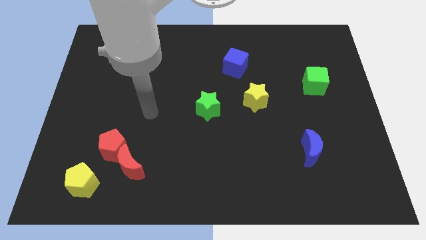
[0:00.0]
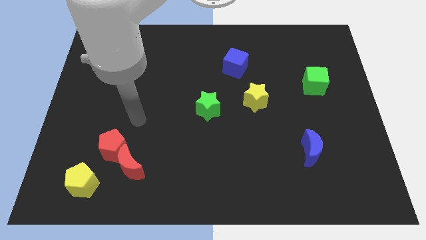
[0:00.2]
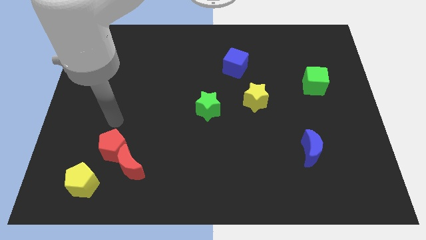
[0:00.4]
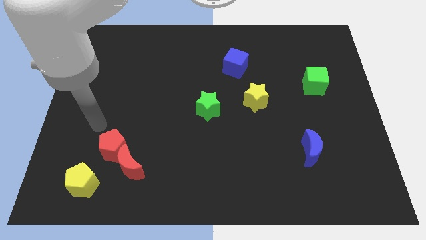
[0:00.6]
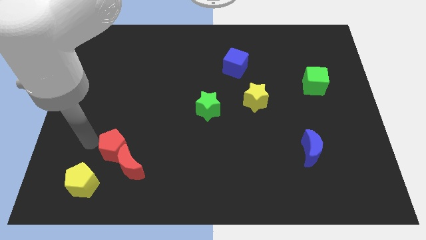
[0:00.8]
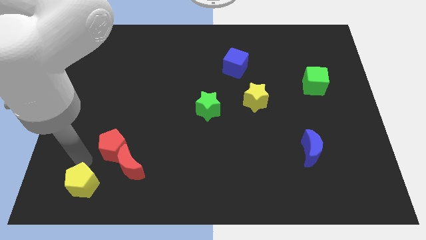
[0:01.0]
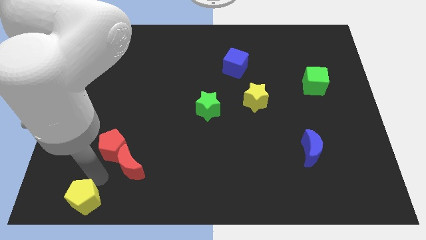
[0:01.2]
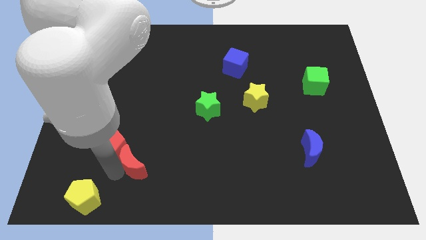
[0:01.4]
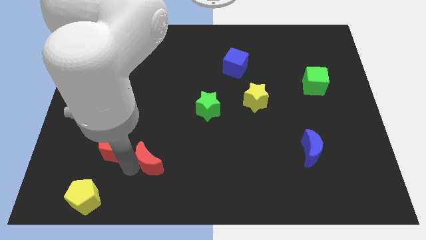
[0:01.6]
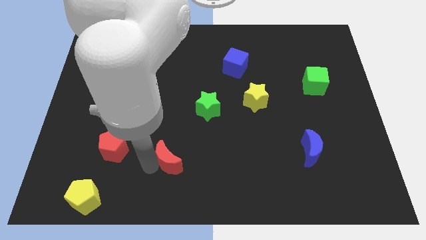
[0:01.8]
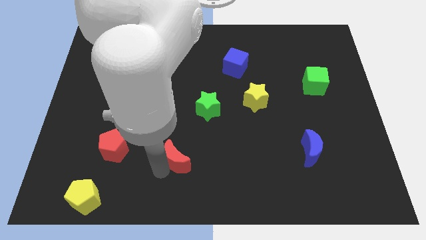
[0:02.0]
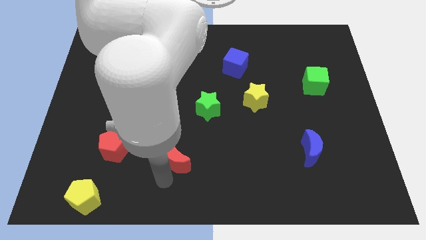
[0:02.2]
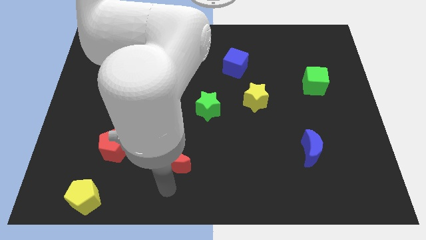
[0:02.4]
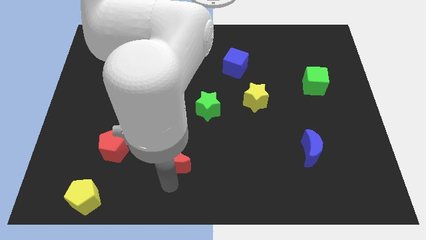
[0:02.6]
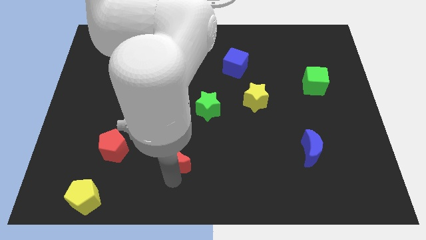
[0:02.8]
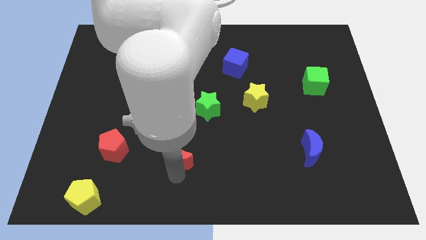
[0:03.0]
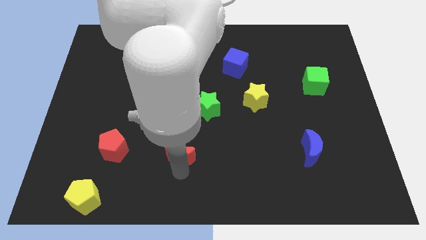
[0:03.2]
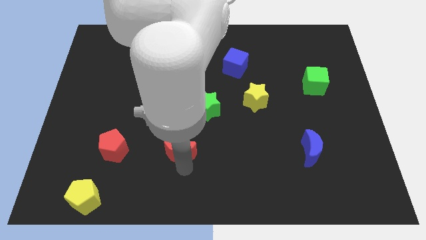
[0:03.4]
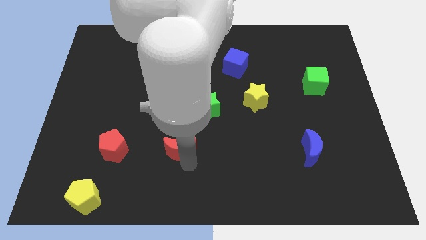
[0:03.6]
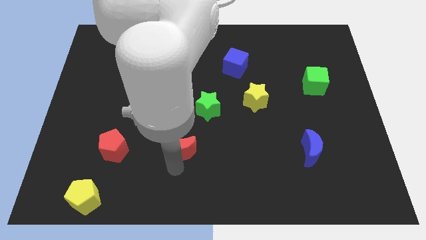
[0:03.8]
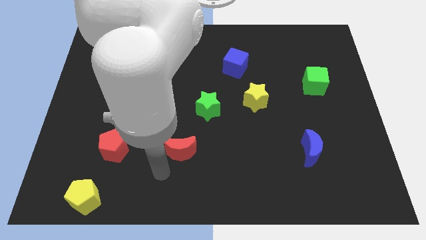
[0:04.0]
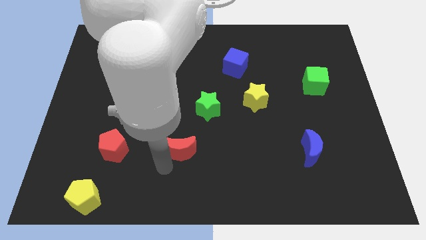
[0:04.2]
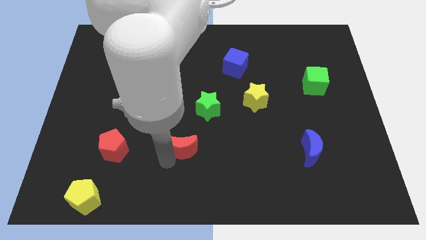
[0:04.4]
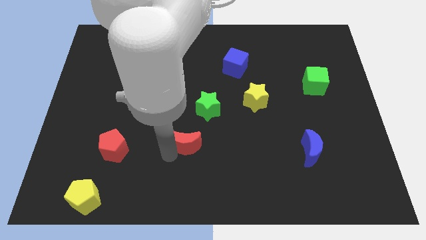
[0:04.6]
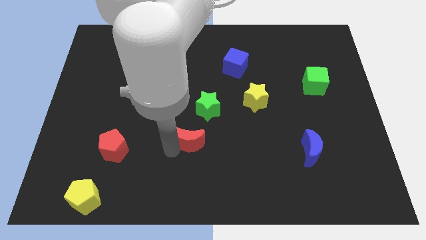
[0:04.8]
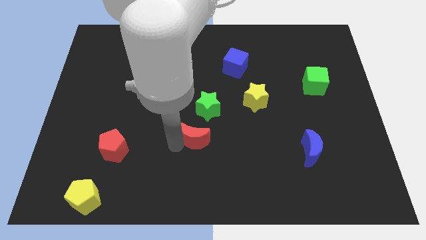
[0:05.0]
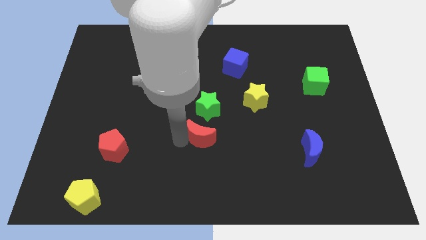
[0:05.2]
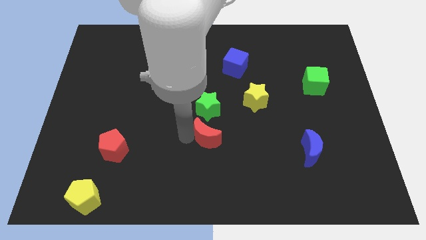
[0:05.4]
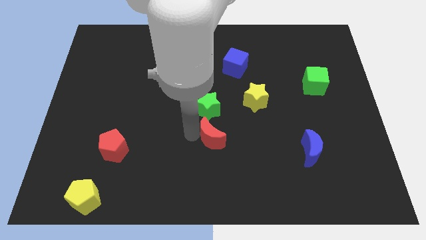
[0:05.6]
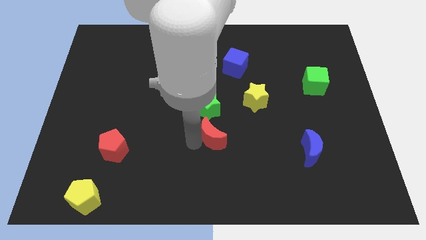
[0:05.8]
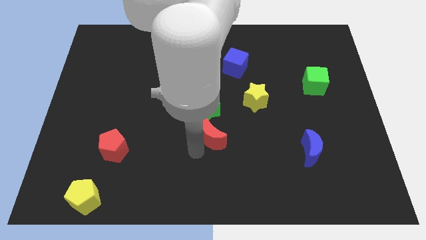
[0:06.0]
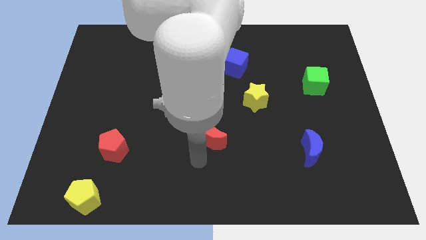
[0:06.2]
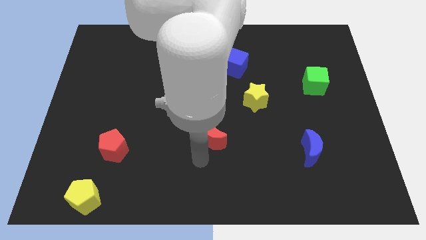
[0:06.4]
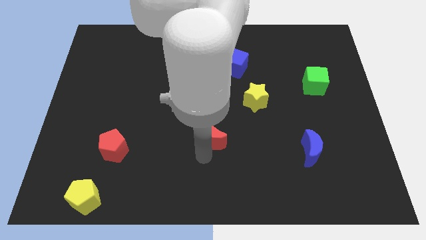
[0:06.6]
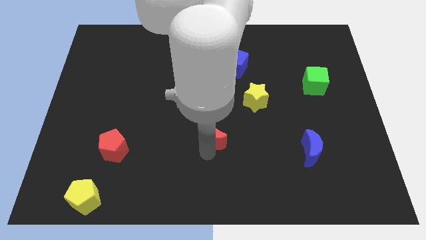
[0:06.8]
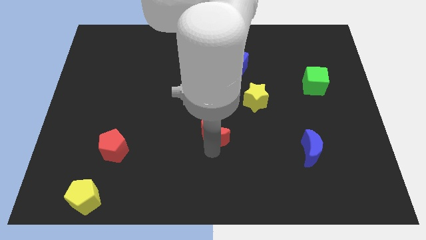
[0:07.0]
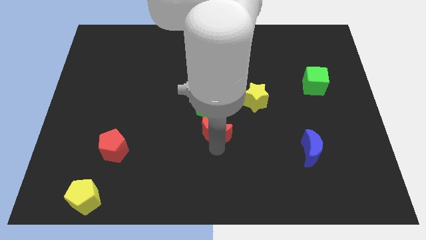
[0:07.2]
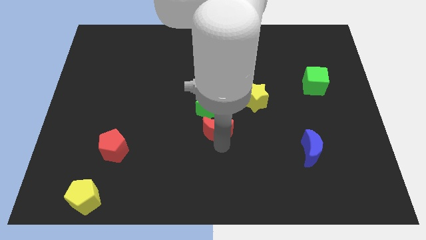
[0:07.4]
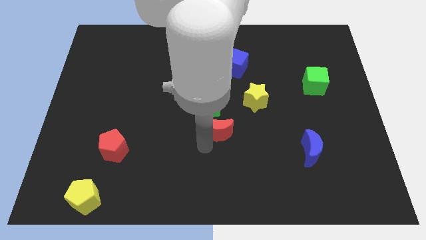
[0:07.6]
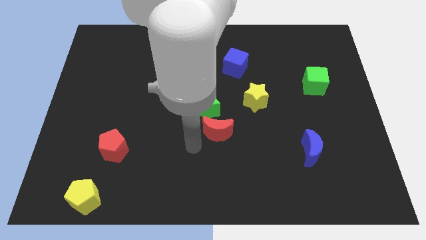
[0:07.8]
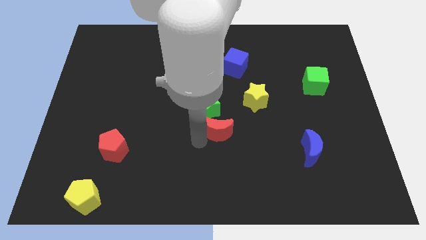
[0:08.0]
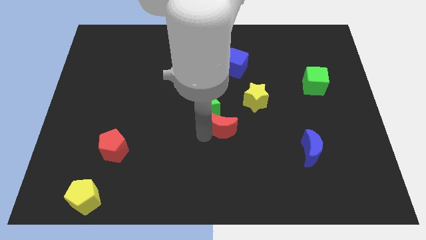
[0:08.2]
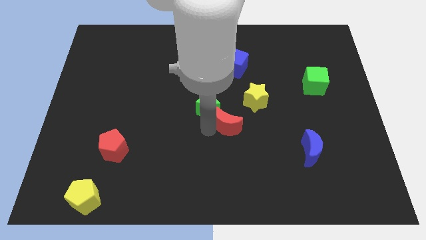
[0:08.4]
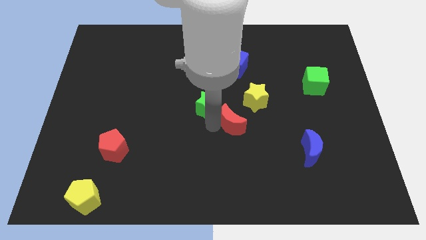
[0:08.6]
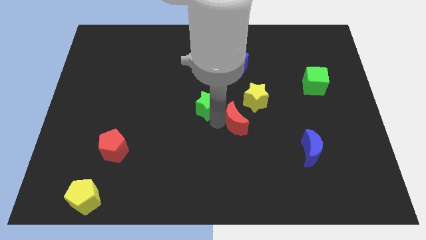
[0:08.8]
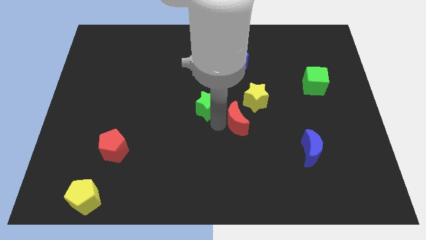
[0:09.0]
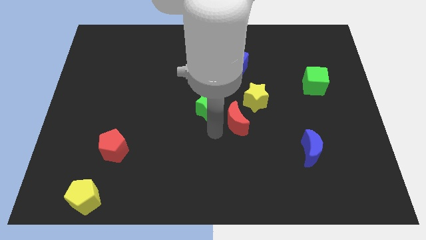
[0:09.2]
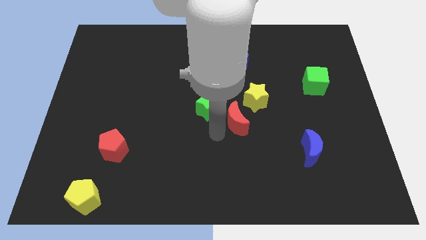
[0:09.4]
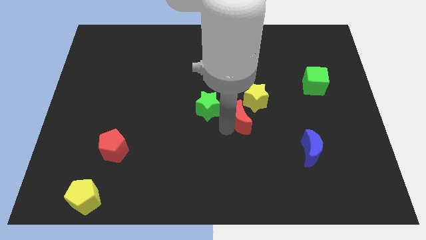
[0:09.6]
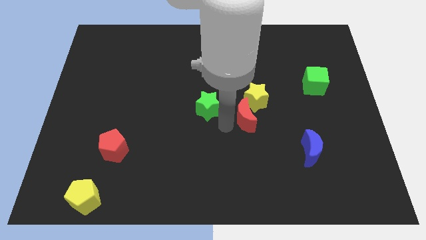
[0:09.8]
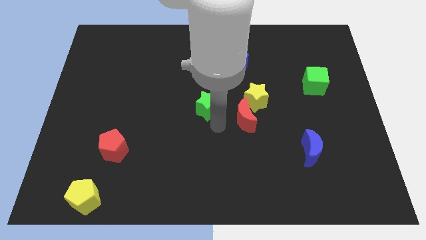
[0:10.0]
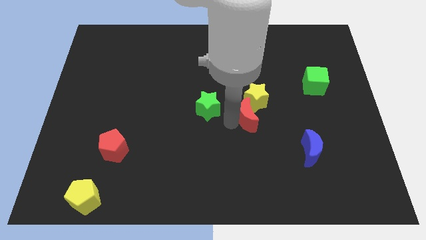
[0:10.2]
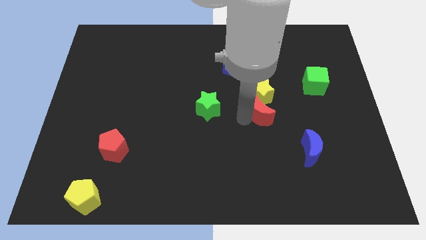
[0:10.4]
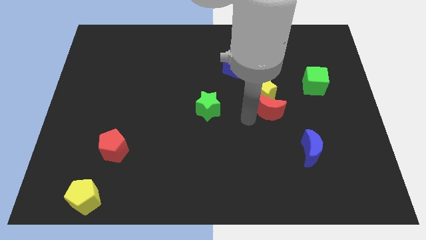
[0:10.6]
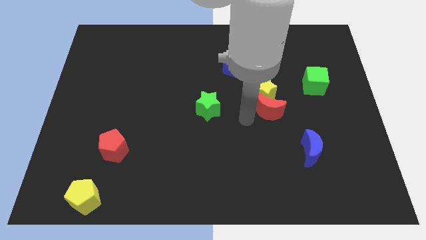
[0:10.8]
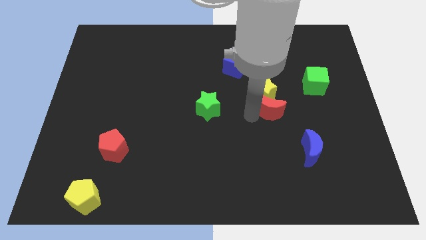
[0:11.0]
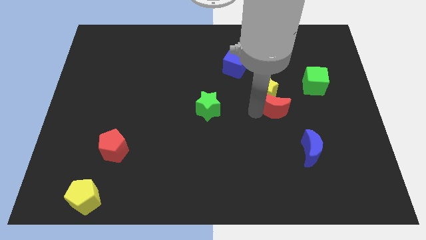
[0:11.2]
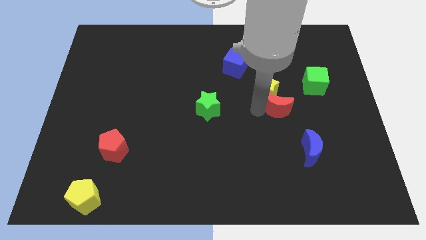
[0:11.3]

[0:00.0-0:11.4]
push the red moon diagonally down and to the left of the green cube

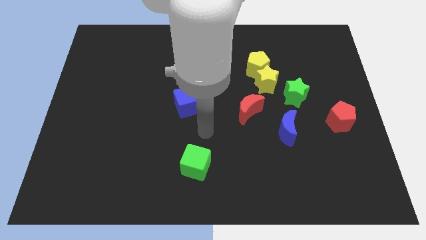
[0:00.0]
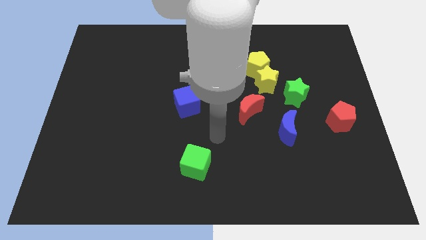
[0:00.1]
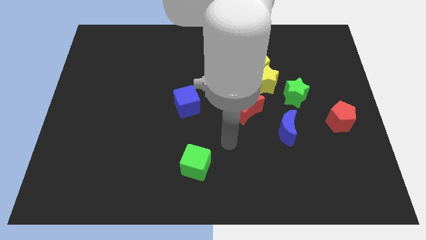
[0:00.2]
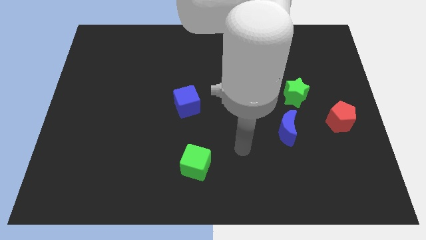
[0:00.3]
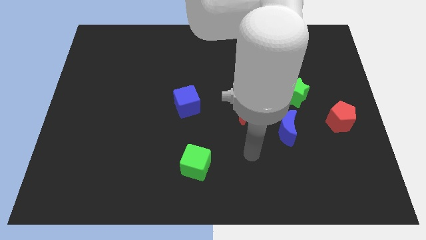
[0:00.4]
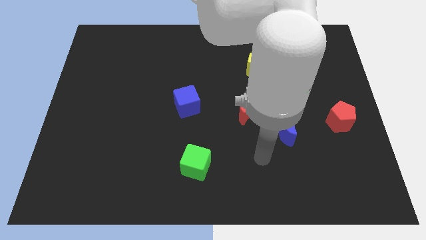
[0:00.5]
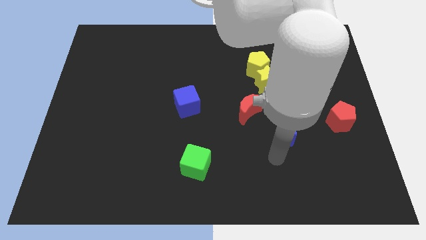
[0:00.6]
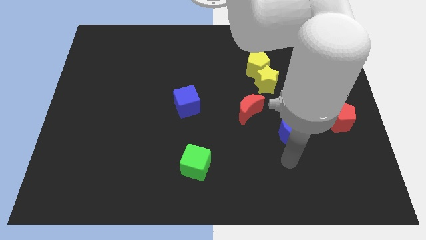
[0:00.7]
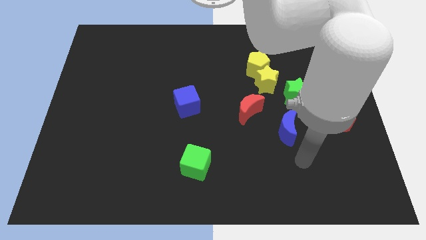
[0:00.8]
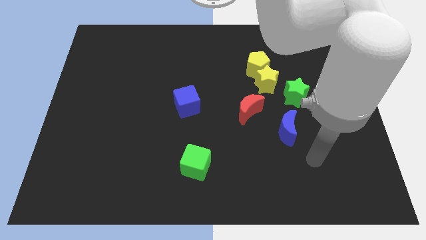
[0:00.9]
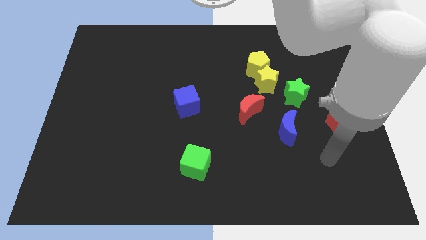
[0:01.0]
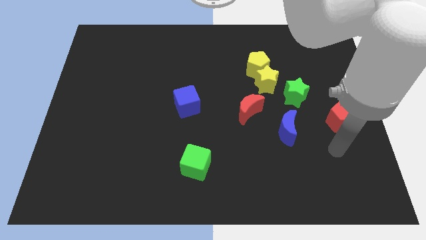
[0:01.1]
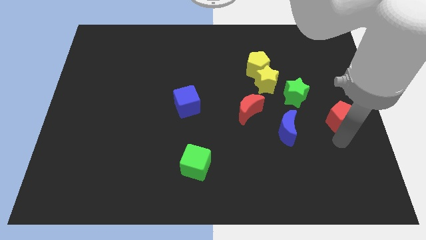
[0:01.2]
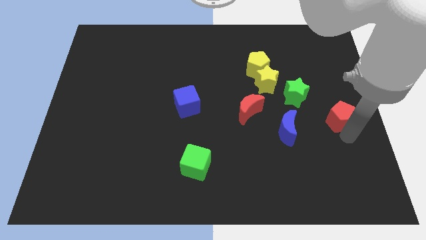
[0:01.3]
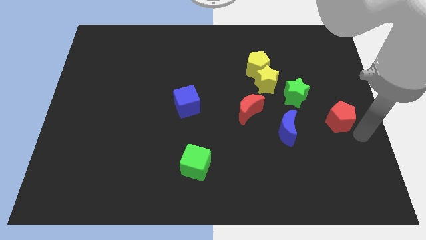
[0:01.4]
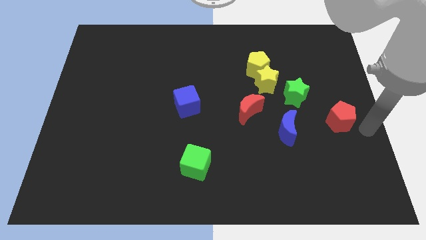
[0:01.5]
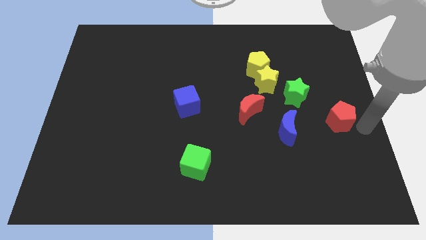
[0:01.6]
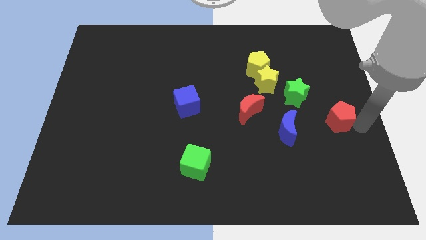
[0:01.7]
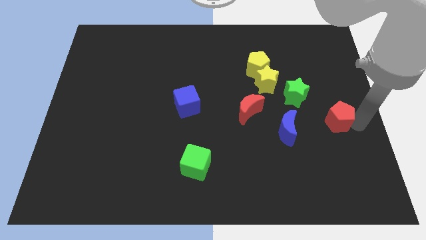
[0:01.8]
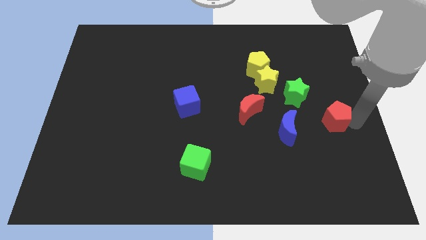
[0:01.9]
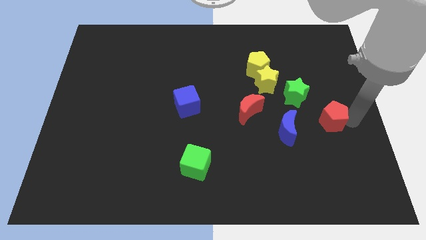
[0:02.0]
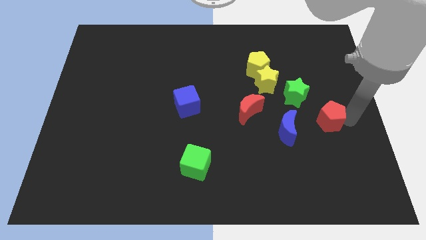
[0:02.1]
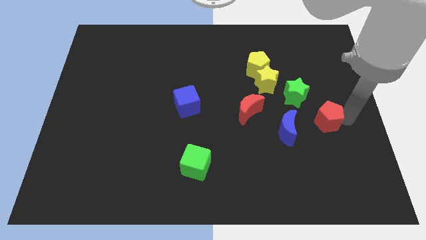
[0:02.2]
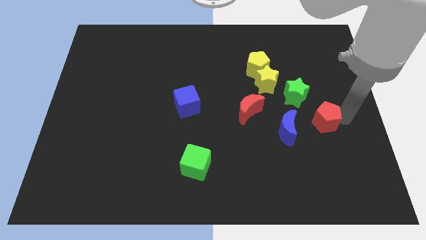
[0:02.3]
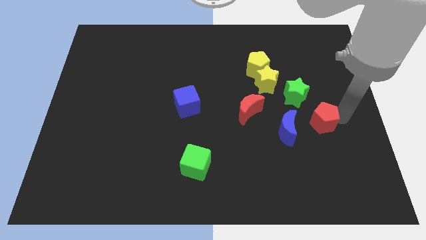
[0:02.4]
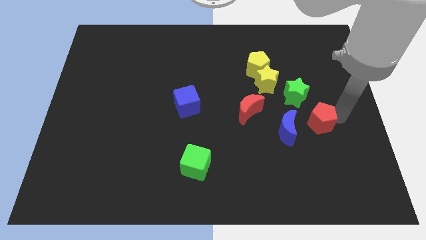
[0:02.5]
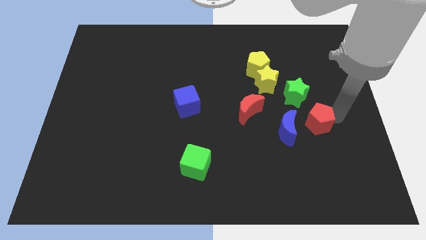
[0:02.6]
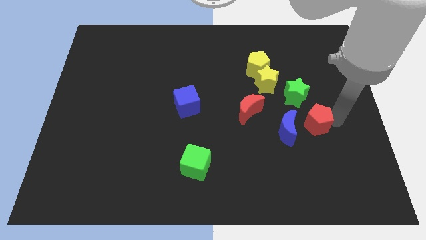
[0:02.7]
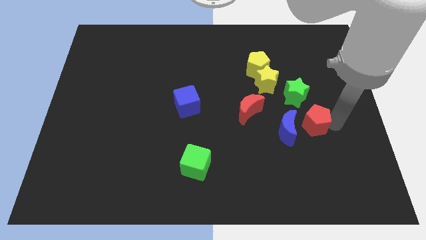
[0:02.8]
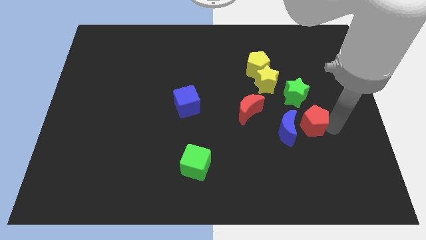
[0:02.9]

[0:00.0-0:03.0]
slide the red pentagon just right of the red moon
